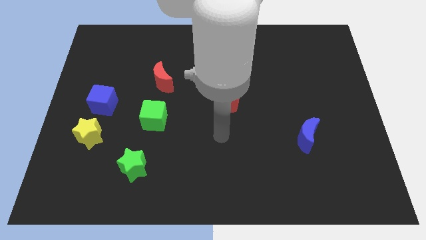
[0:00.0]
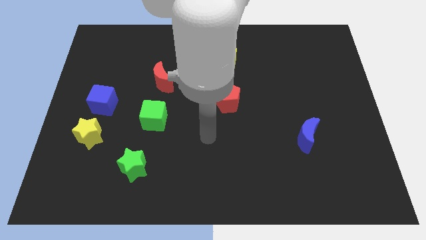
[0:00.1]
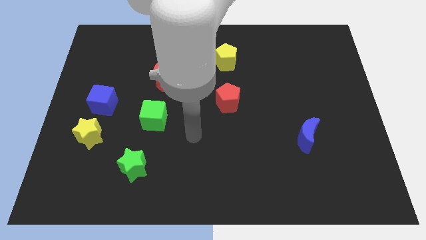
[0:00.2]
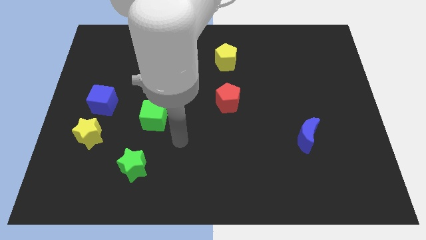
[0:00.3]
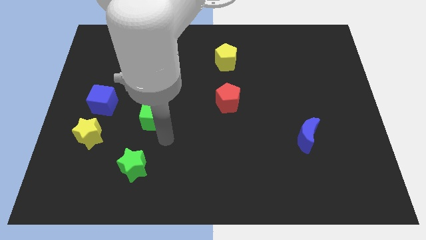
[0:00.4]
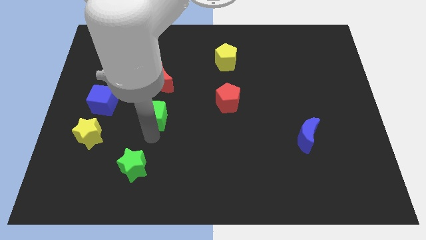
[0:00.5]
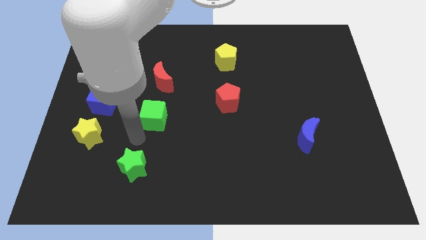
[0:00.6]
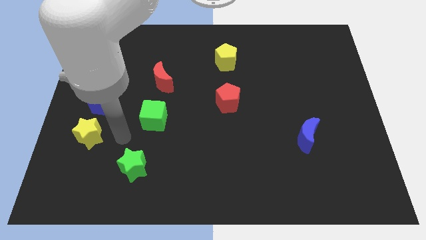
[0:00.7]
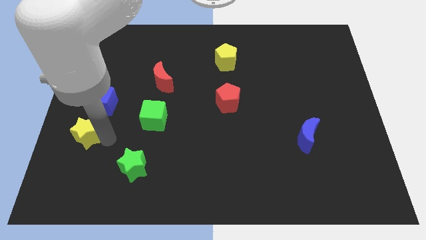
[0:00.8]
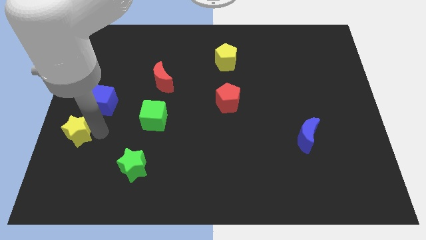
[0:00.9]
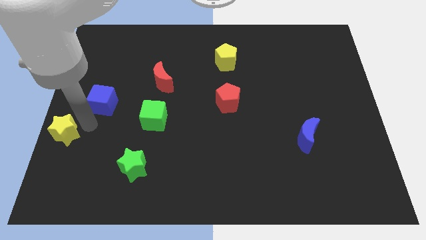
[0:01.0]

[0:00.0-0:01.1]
move the blue cube away from the yellow star

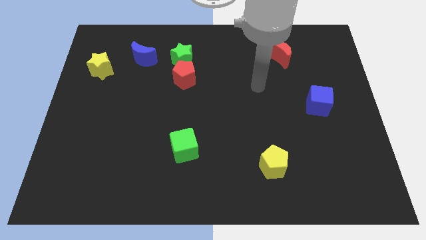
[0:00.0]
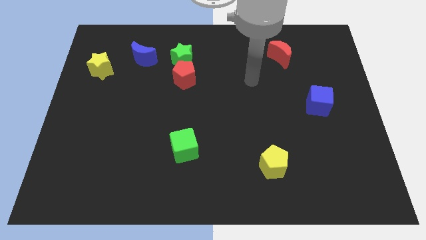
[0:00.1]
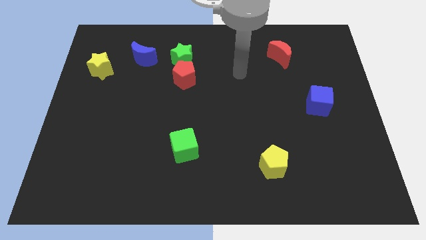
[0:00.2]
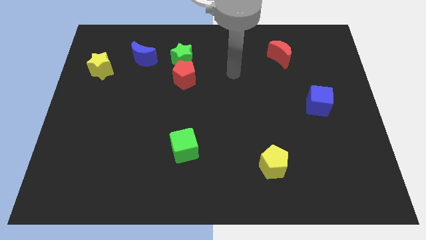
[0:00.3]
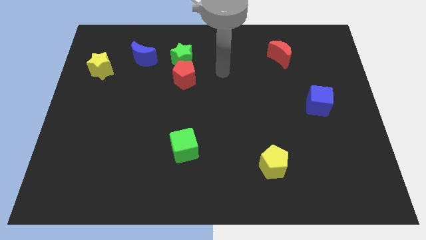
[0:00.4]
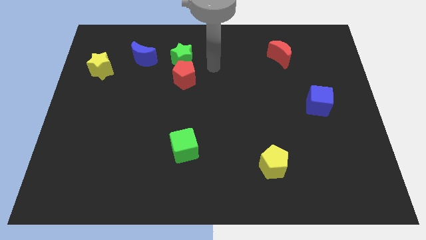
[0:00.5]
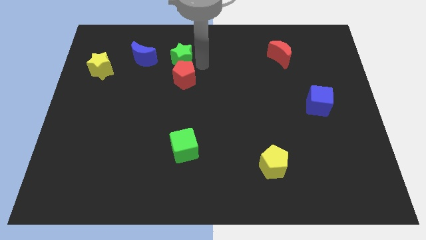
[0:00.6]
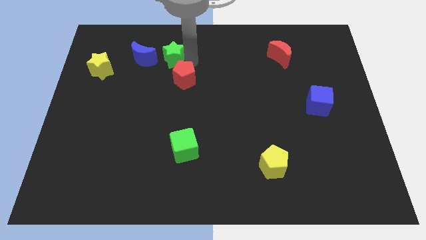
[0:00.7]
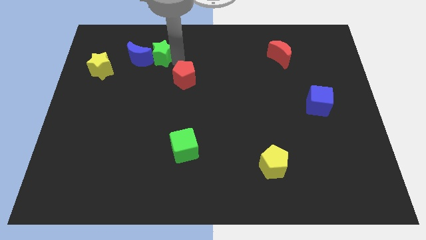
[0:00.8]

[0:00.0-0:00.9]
separate the red pentagon from the green star

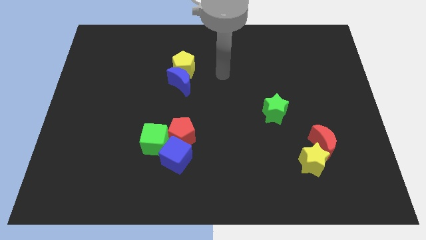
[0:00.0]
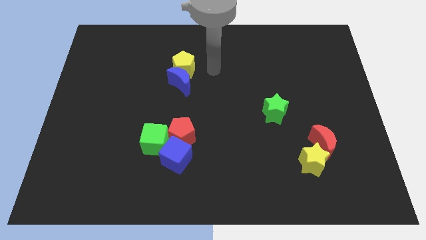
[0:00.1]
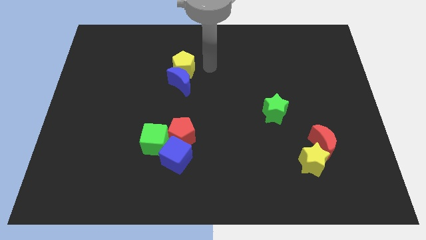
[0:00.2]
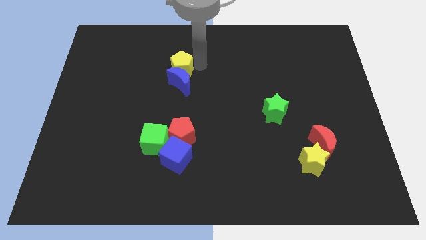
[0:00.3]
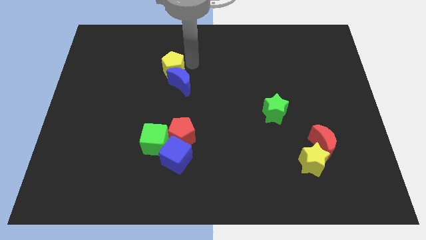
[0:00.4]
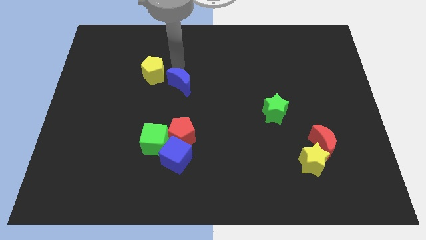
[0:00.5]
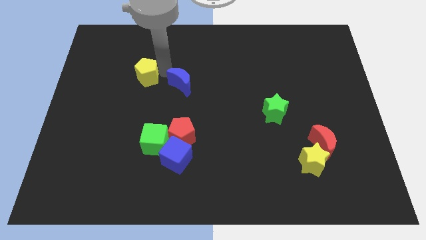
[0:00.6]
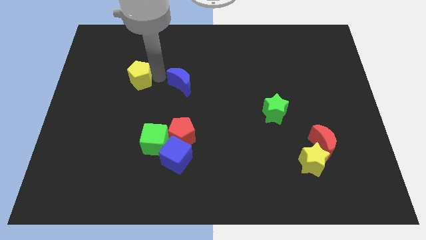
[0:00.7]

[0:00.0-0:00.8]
pull the blue moon apart from the yellow pentagon

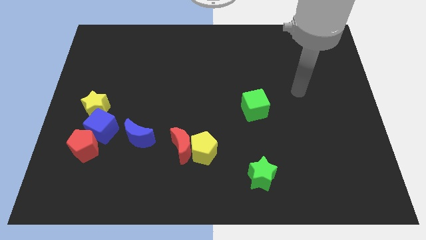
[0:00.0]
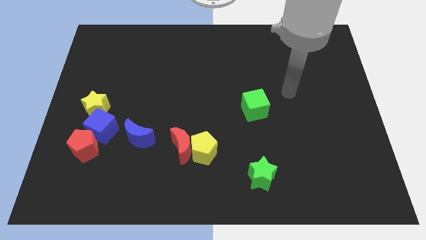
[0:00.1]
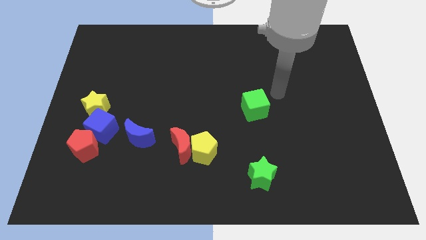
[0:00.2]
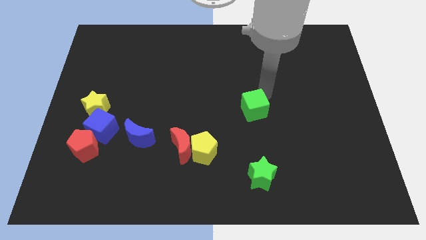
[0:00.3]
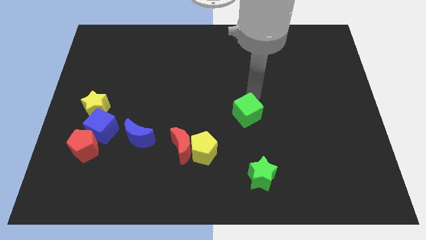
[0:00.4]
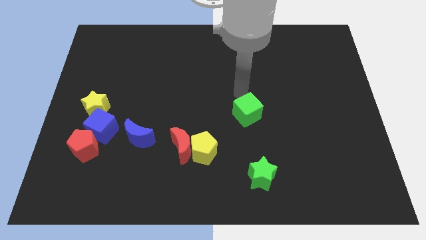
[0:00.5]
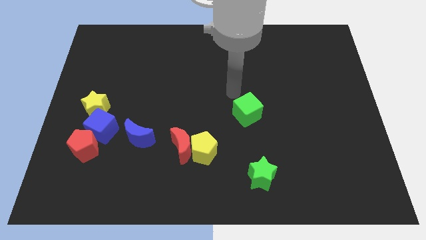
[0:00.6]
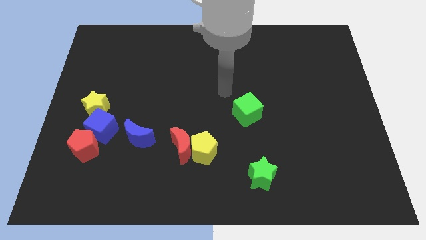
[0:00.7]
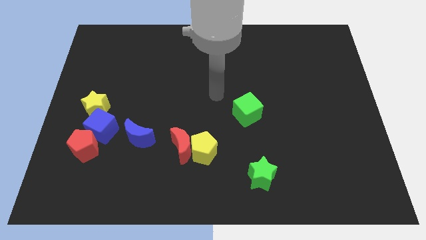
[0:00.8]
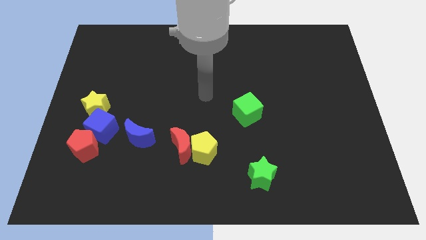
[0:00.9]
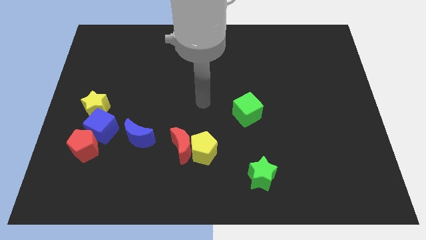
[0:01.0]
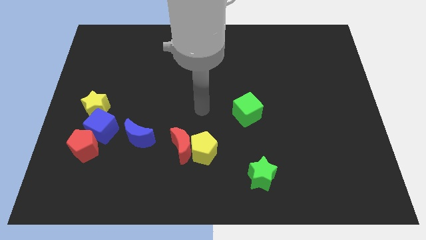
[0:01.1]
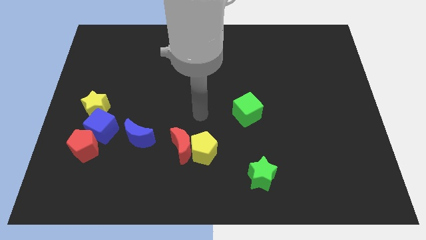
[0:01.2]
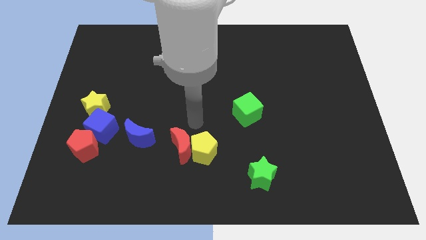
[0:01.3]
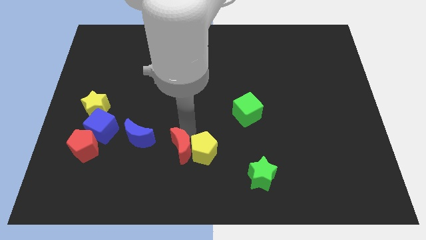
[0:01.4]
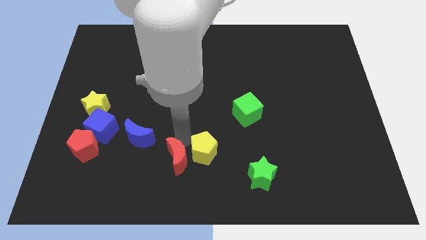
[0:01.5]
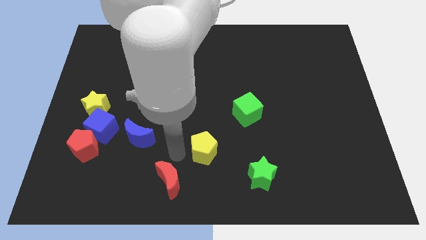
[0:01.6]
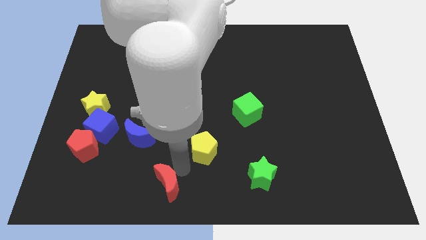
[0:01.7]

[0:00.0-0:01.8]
move the yellow pentagon away from the red moon

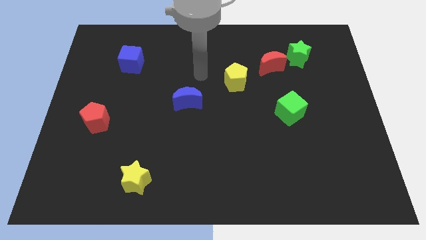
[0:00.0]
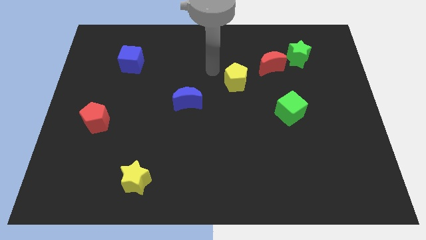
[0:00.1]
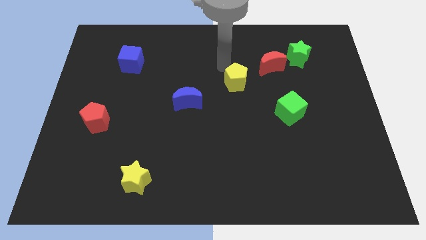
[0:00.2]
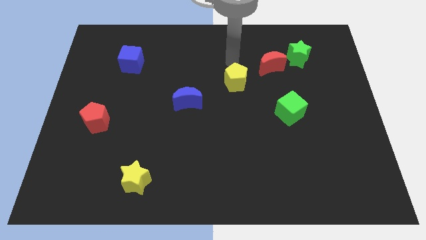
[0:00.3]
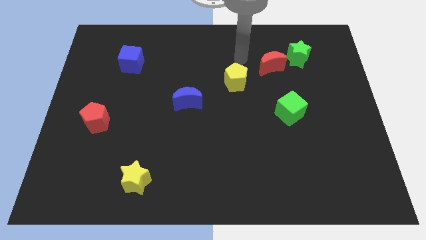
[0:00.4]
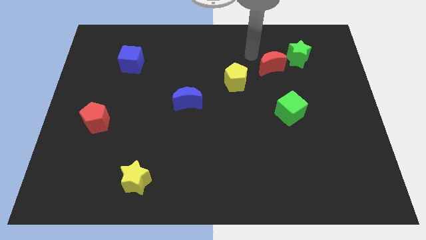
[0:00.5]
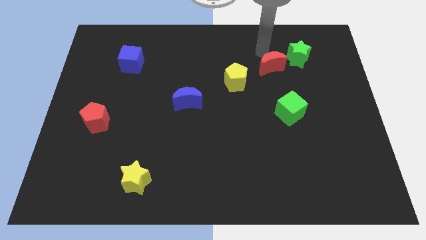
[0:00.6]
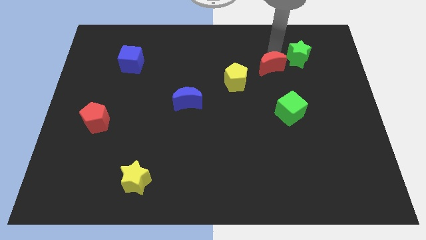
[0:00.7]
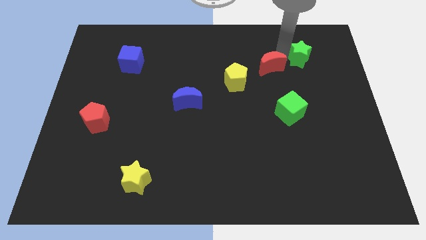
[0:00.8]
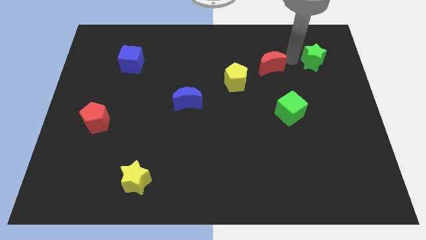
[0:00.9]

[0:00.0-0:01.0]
separate the red moon from the green star

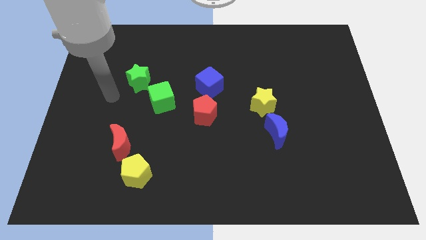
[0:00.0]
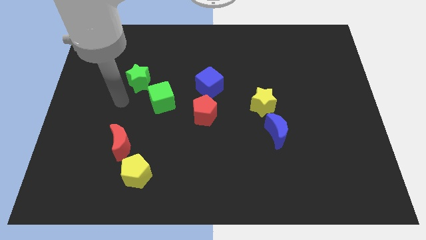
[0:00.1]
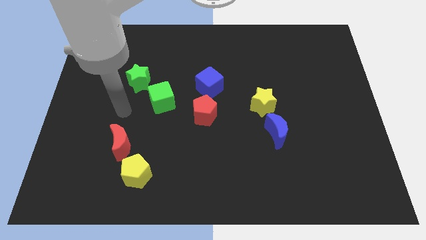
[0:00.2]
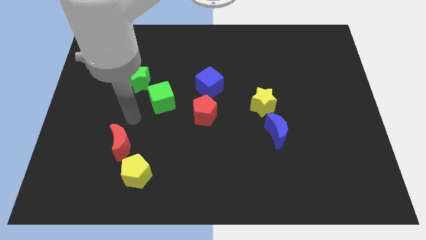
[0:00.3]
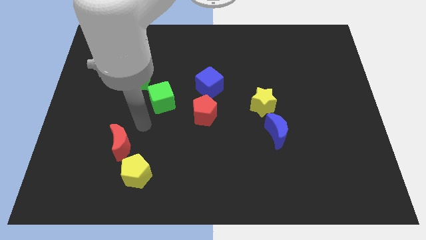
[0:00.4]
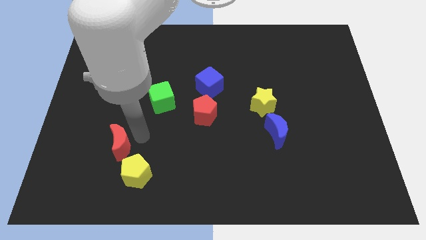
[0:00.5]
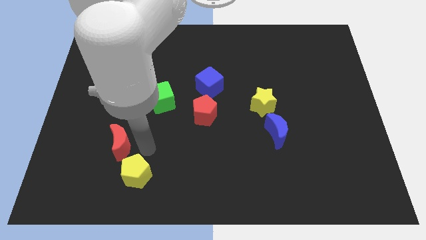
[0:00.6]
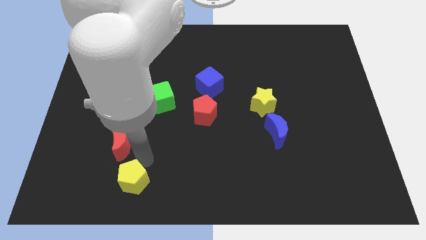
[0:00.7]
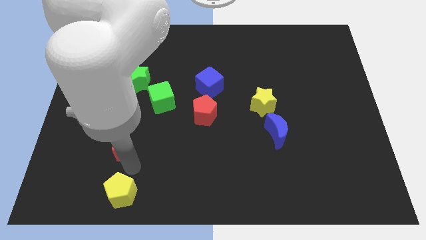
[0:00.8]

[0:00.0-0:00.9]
pull the red moon apart from the yellow pentagon

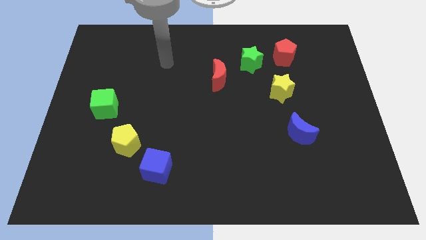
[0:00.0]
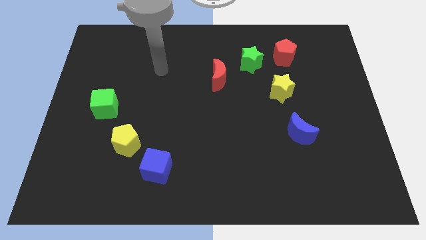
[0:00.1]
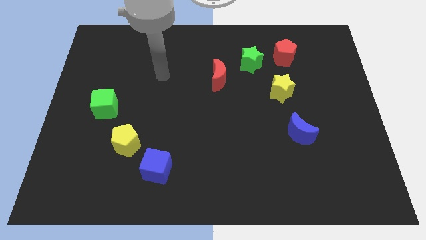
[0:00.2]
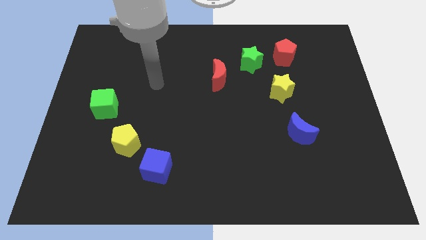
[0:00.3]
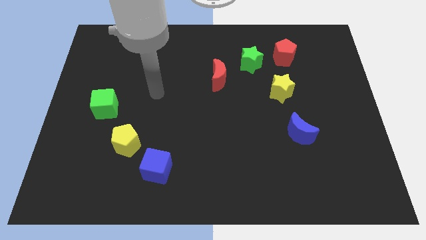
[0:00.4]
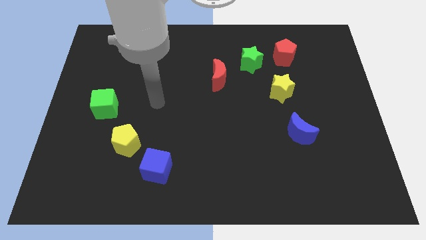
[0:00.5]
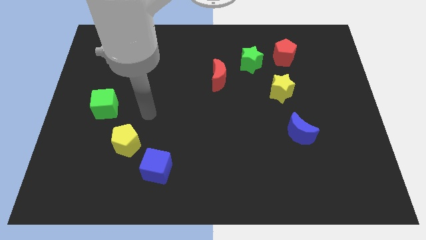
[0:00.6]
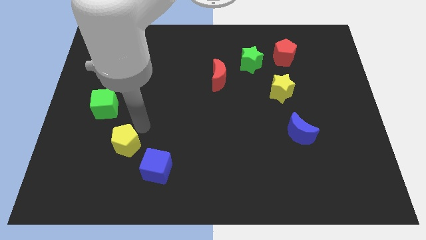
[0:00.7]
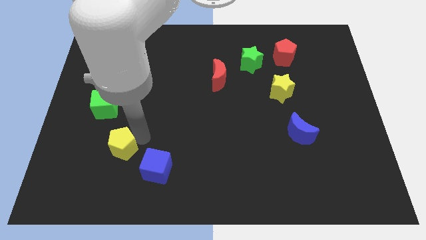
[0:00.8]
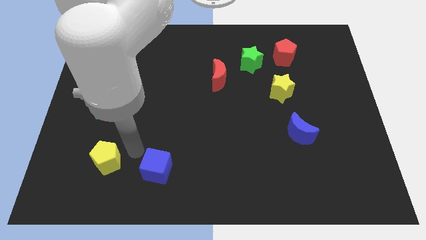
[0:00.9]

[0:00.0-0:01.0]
move the blue cube away from the yellow pentagon

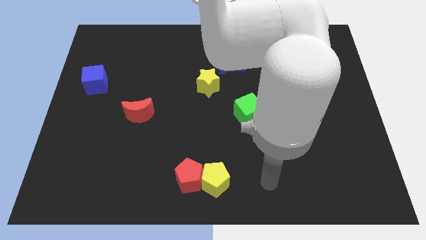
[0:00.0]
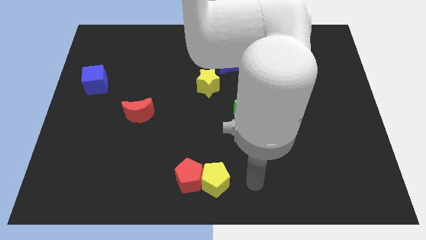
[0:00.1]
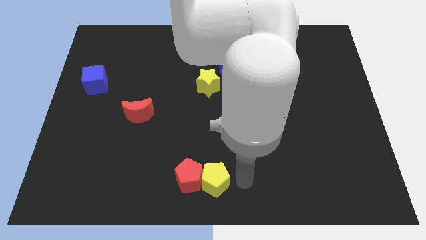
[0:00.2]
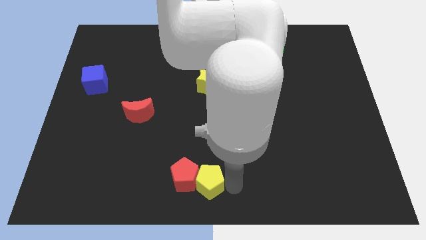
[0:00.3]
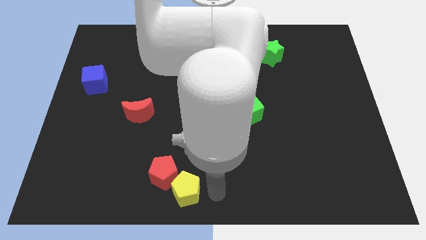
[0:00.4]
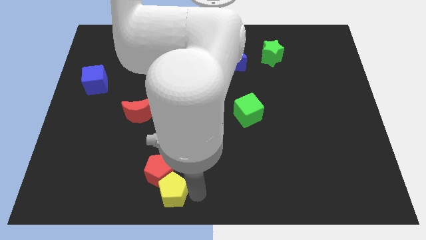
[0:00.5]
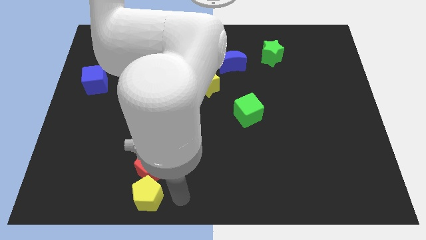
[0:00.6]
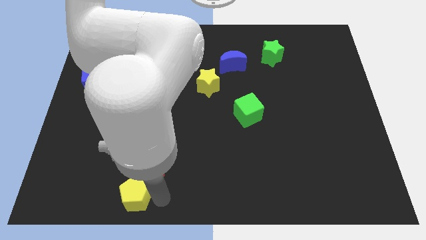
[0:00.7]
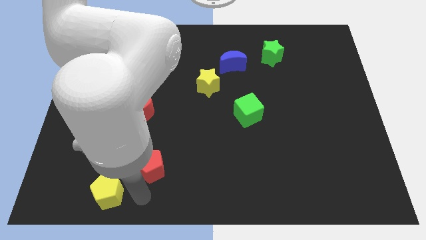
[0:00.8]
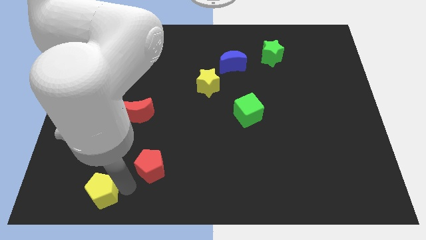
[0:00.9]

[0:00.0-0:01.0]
move the red pentagon away from the yellow pentagon

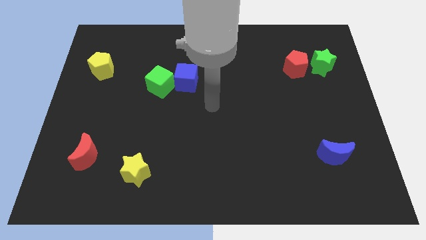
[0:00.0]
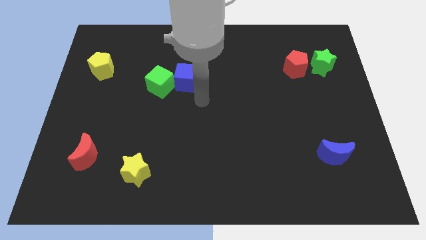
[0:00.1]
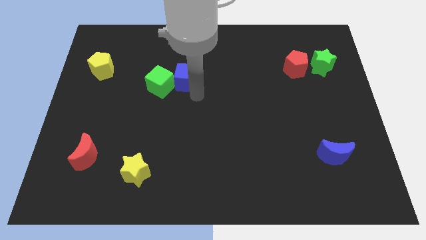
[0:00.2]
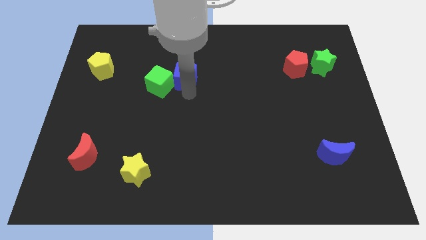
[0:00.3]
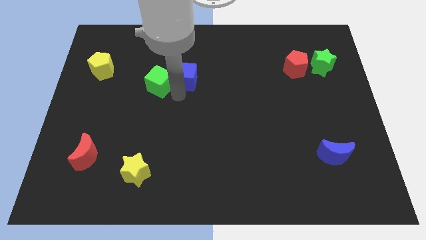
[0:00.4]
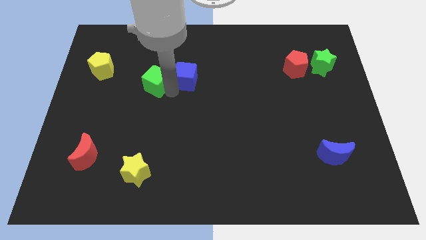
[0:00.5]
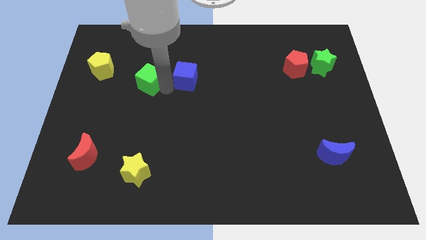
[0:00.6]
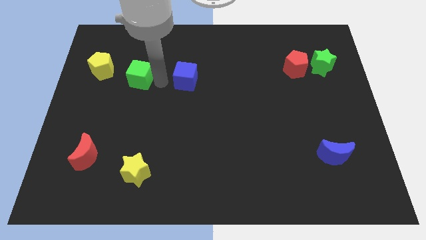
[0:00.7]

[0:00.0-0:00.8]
move the blue cube away from the green cube
